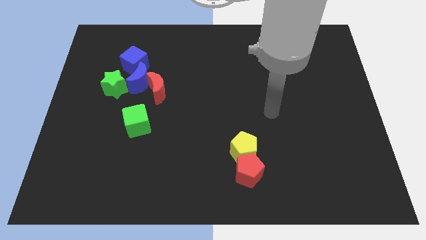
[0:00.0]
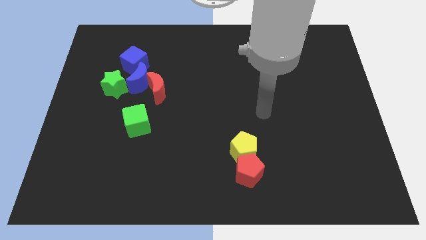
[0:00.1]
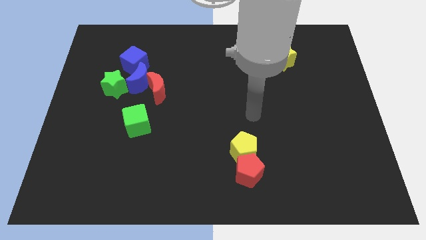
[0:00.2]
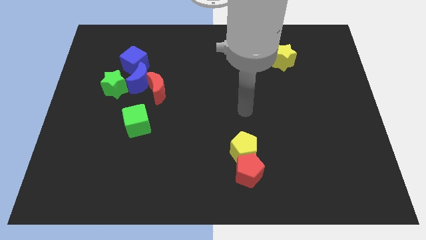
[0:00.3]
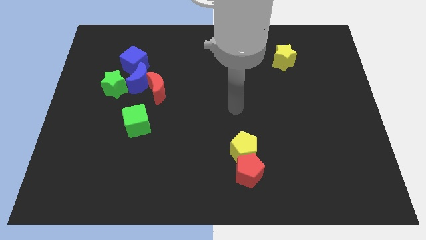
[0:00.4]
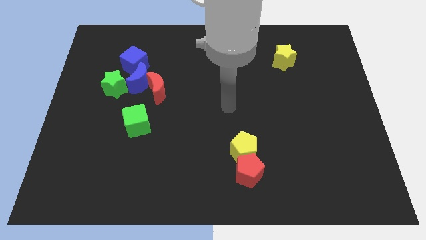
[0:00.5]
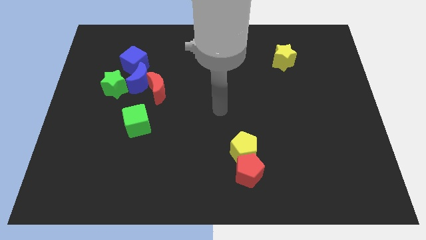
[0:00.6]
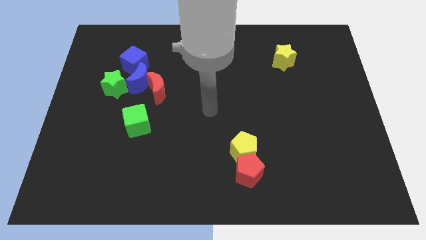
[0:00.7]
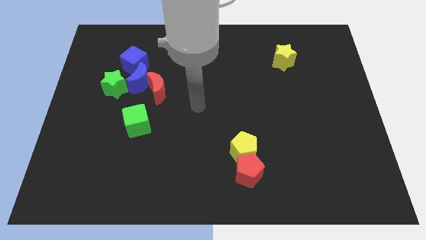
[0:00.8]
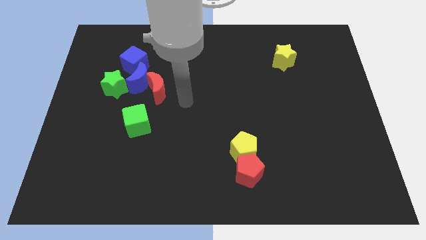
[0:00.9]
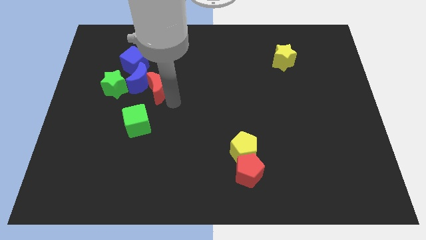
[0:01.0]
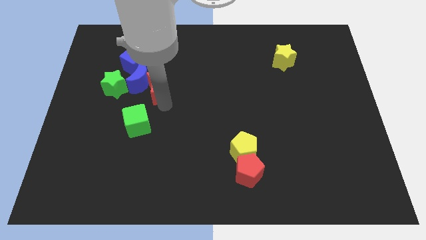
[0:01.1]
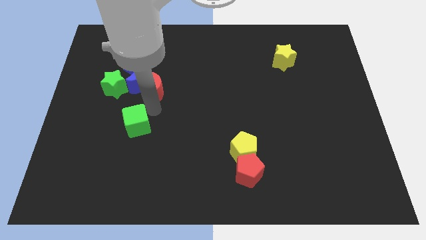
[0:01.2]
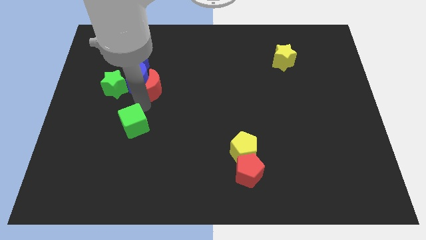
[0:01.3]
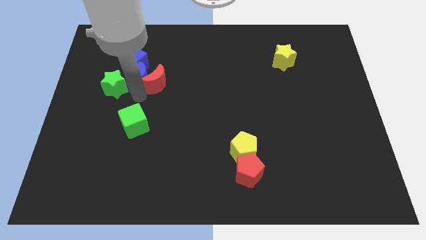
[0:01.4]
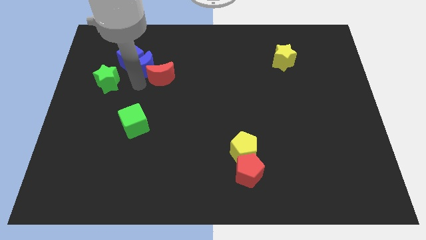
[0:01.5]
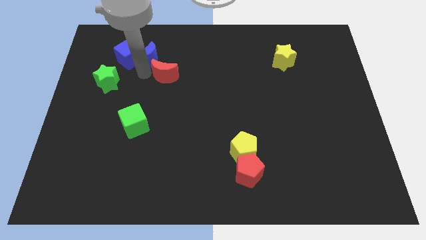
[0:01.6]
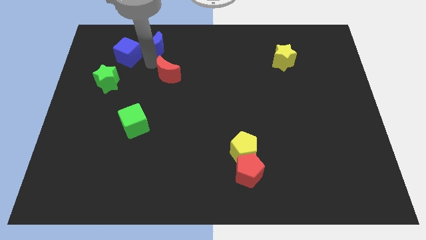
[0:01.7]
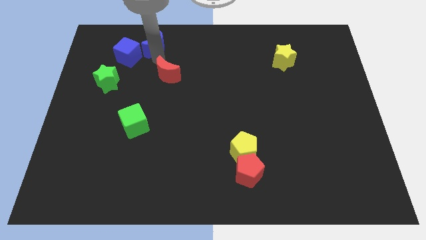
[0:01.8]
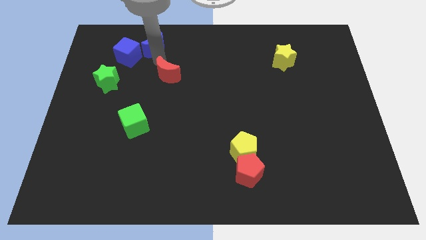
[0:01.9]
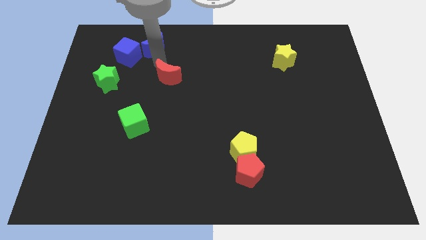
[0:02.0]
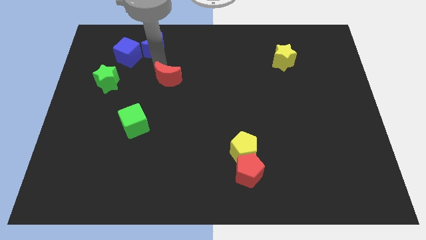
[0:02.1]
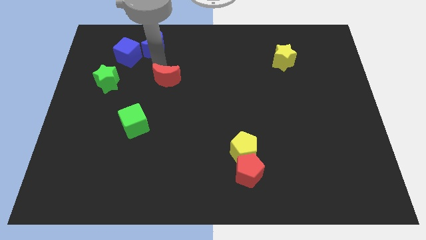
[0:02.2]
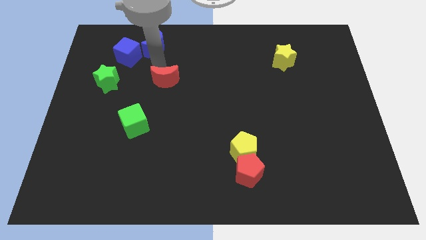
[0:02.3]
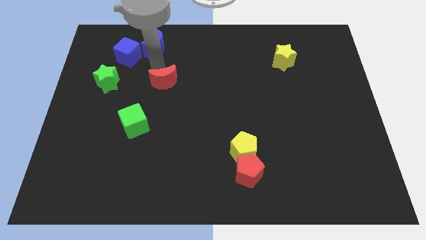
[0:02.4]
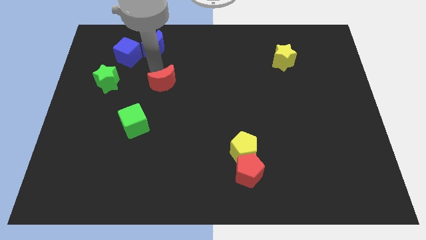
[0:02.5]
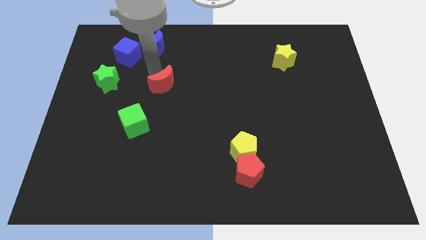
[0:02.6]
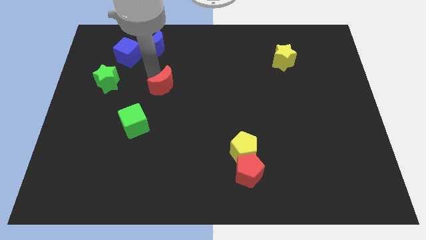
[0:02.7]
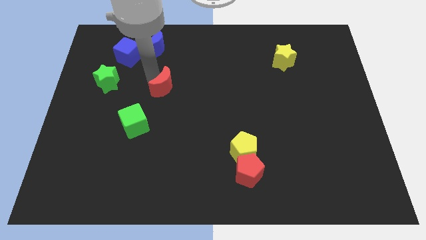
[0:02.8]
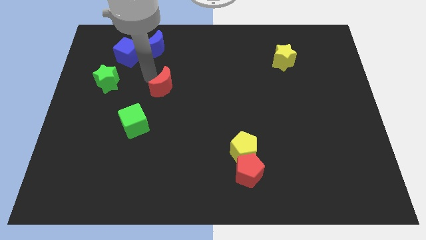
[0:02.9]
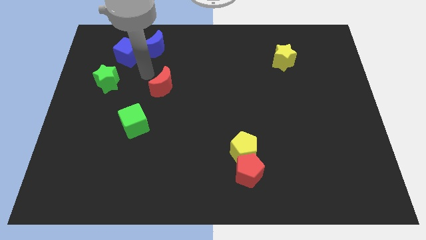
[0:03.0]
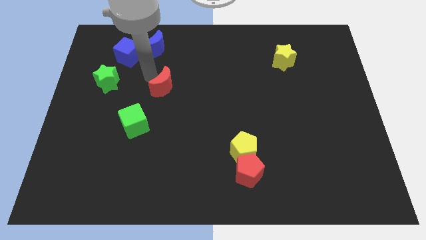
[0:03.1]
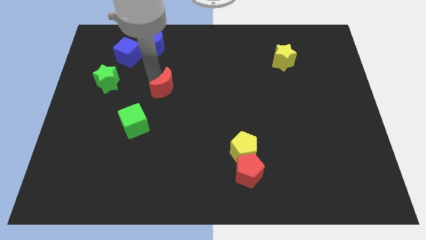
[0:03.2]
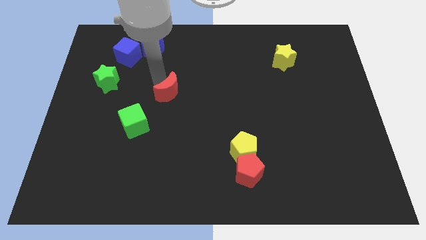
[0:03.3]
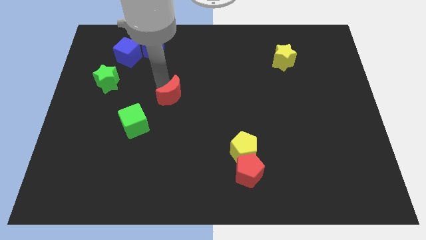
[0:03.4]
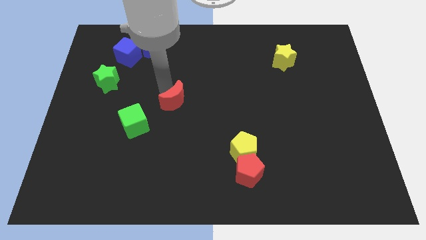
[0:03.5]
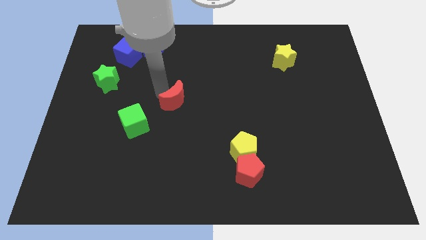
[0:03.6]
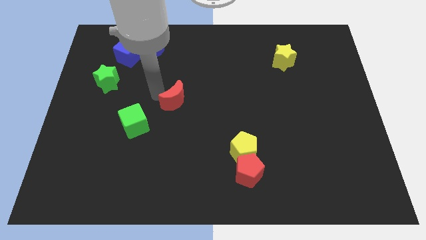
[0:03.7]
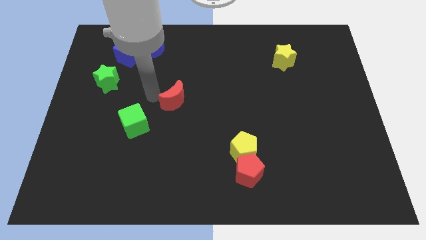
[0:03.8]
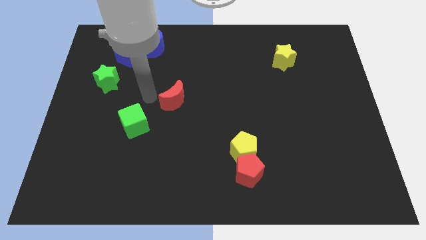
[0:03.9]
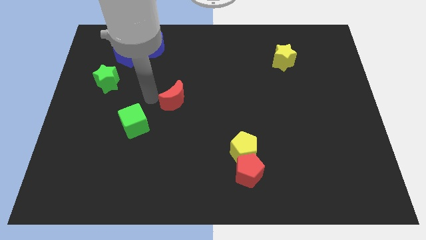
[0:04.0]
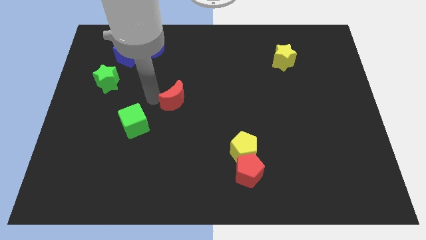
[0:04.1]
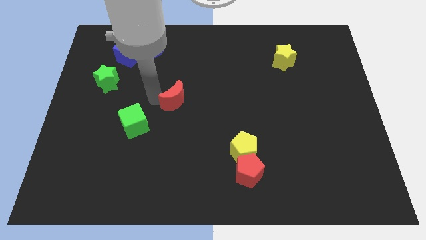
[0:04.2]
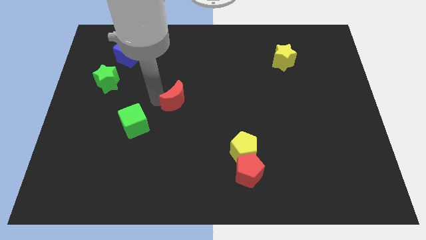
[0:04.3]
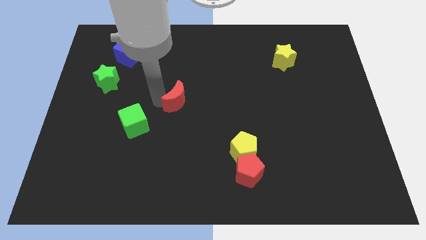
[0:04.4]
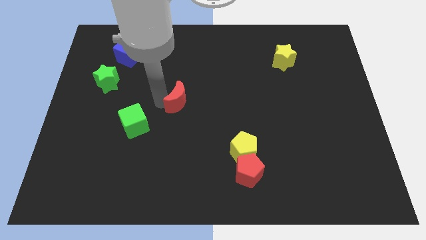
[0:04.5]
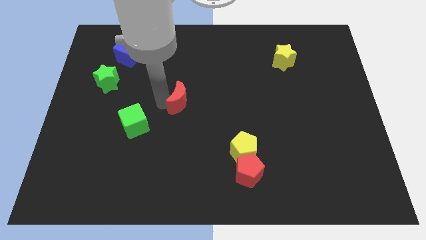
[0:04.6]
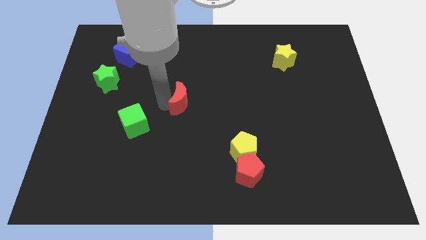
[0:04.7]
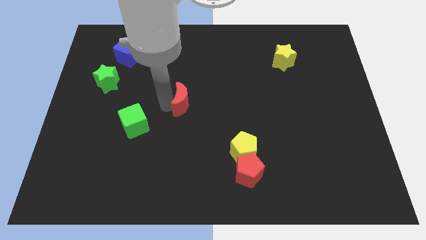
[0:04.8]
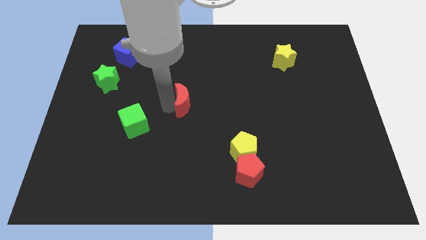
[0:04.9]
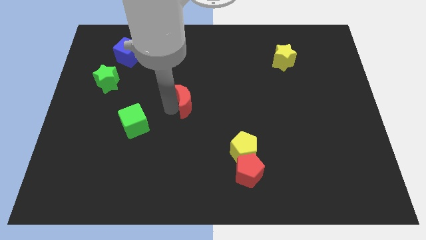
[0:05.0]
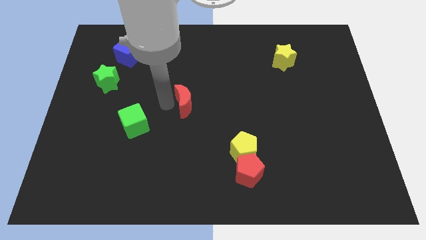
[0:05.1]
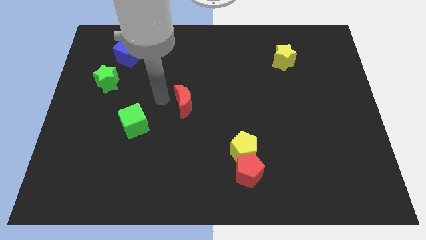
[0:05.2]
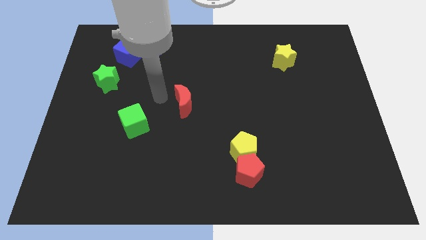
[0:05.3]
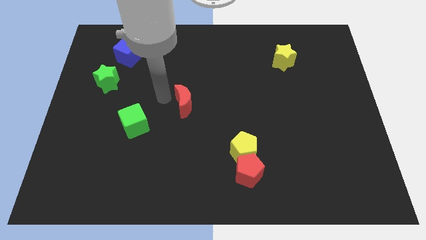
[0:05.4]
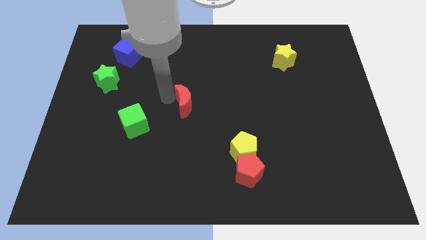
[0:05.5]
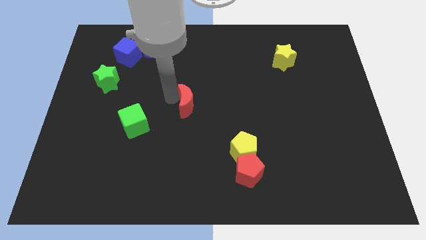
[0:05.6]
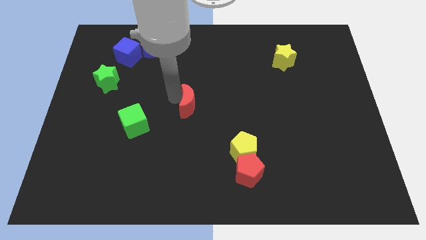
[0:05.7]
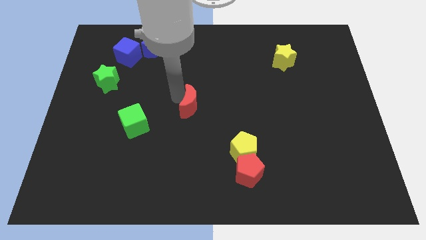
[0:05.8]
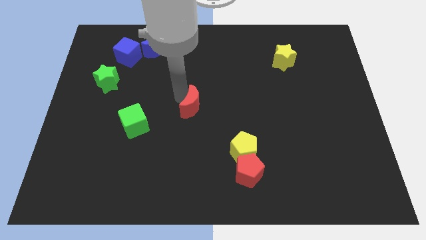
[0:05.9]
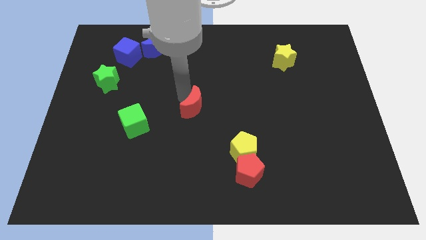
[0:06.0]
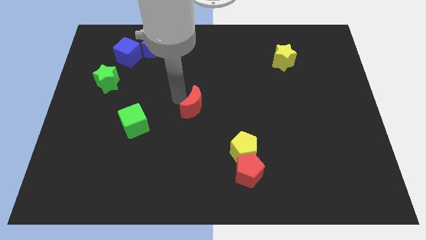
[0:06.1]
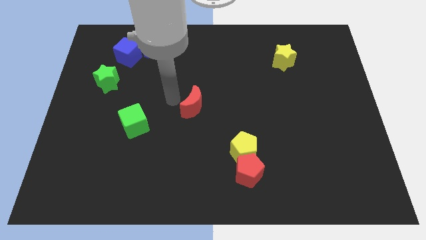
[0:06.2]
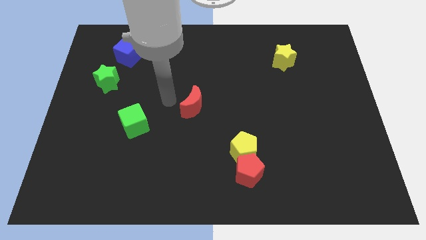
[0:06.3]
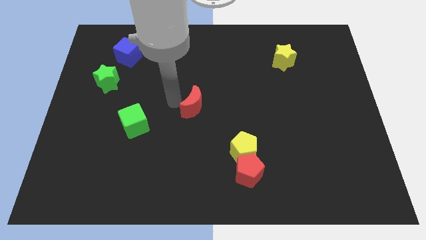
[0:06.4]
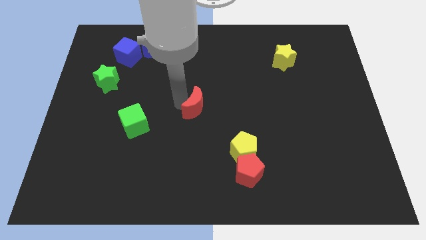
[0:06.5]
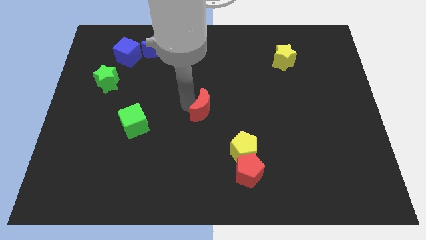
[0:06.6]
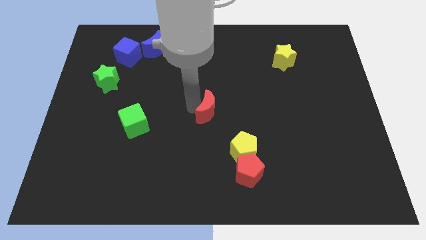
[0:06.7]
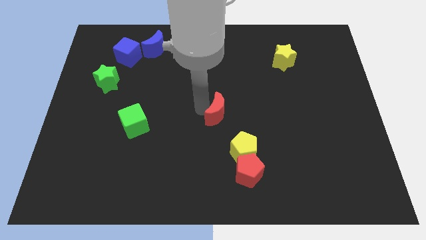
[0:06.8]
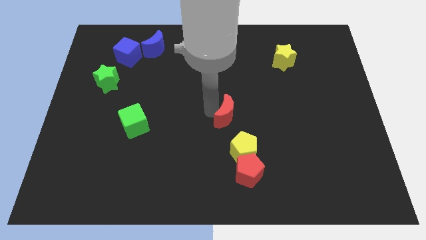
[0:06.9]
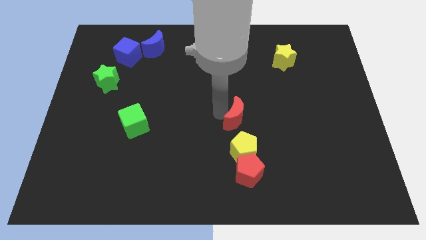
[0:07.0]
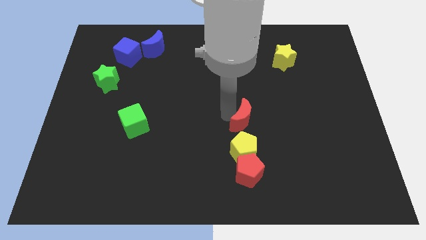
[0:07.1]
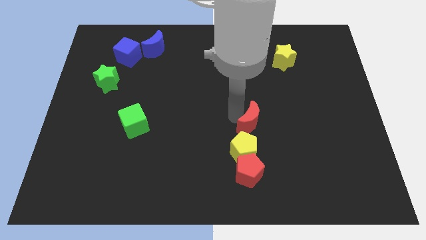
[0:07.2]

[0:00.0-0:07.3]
slide the red moon to the top right side of the yellow pentagon
